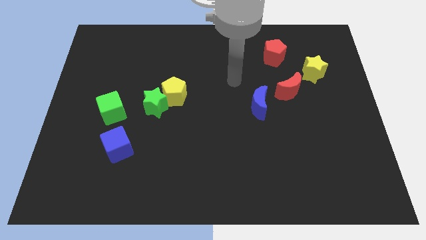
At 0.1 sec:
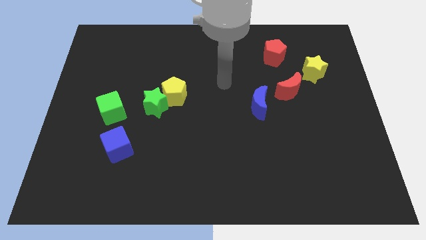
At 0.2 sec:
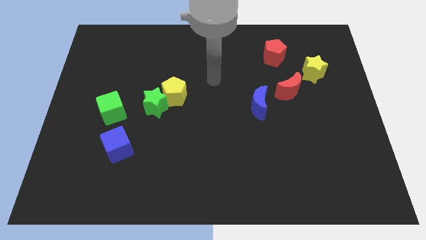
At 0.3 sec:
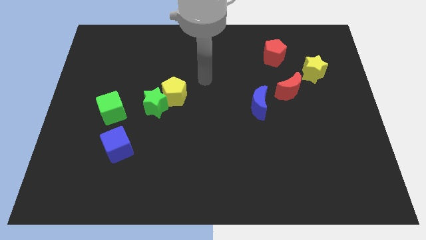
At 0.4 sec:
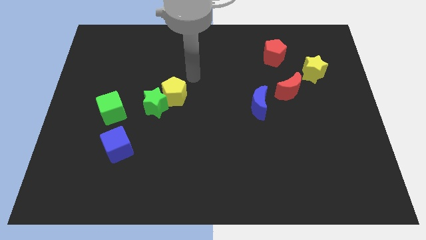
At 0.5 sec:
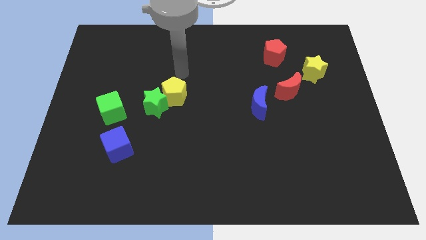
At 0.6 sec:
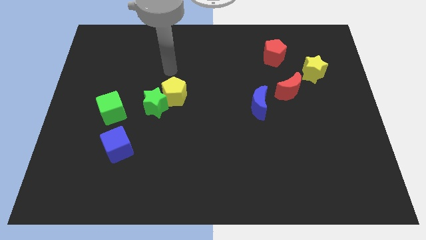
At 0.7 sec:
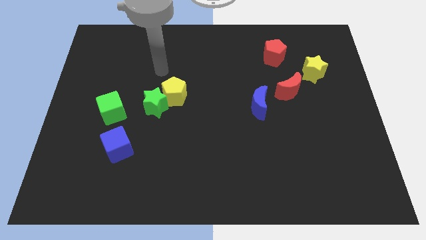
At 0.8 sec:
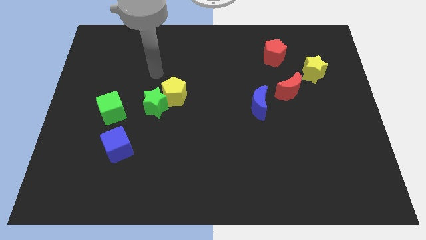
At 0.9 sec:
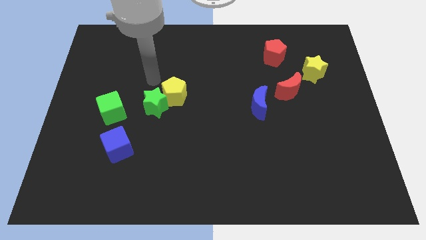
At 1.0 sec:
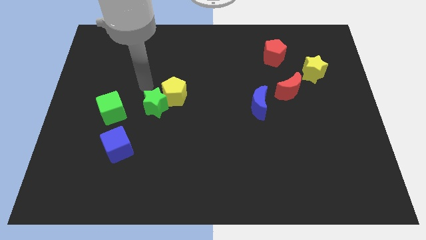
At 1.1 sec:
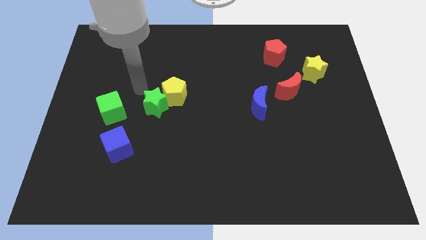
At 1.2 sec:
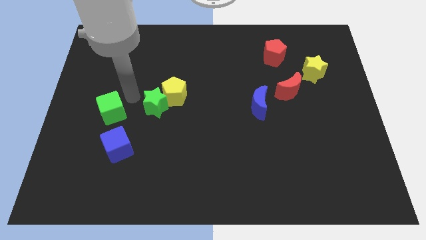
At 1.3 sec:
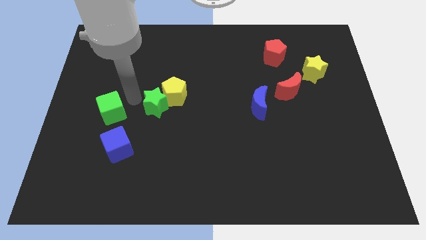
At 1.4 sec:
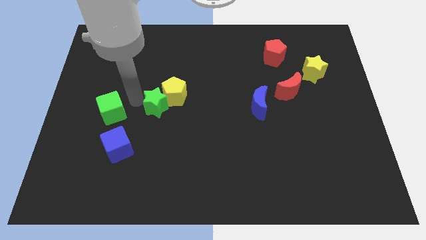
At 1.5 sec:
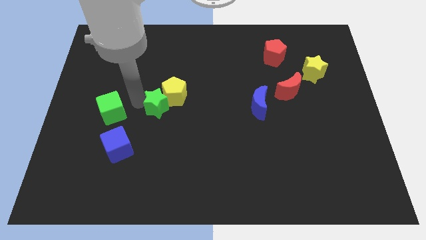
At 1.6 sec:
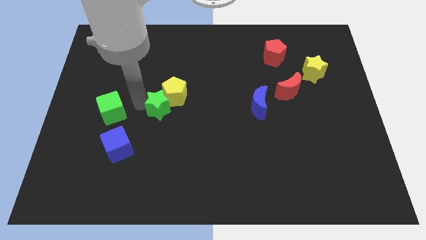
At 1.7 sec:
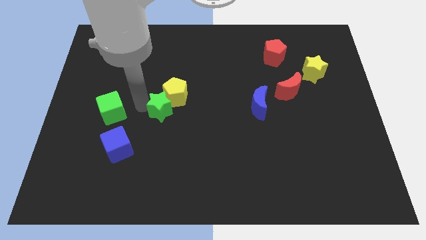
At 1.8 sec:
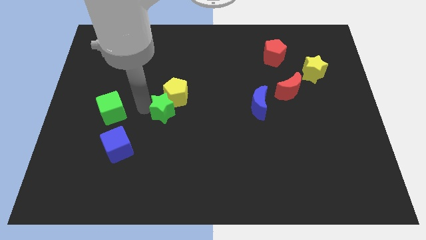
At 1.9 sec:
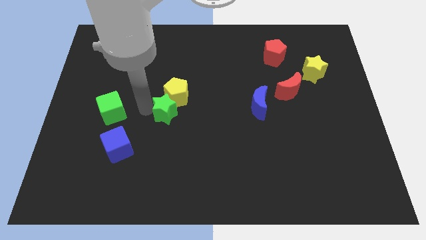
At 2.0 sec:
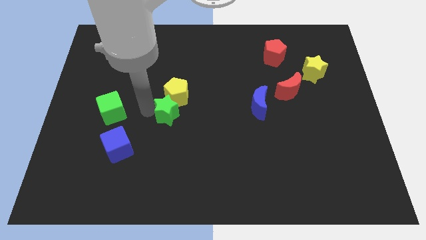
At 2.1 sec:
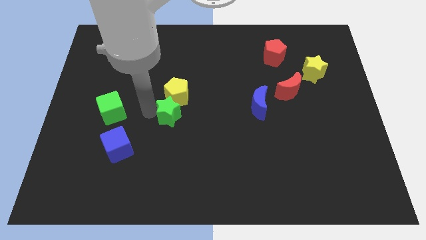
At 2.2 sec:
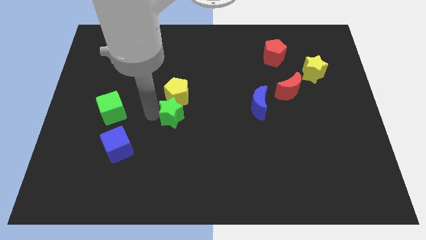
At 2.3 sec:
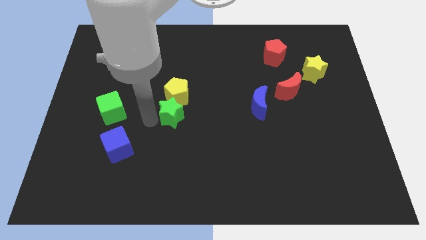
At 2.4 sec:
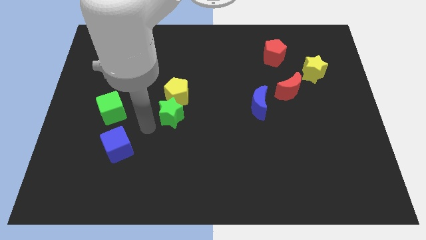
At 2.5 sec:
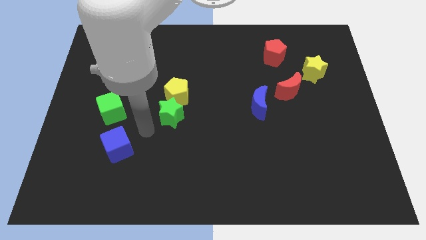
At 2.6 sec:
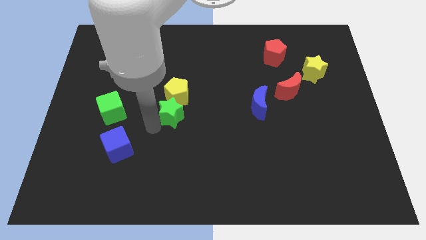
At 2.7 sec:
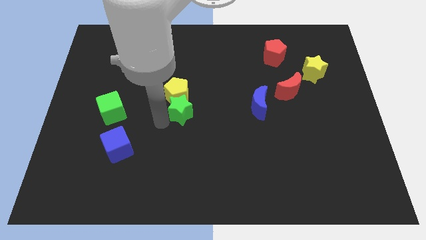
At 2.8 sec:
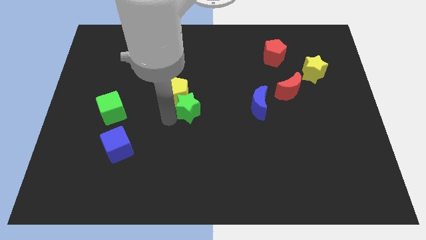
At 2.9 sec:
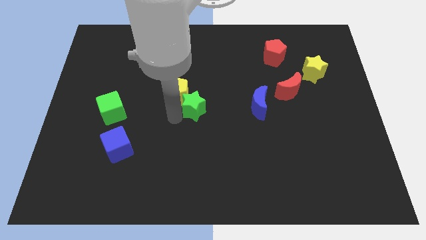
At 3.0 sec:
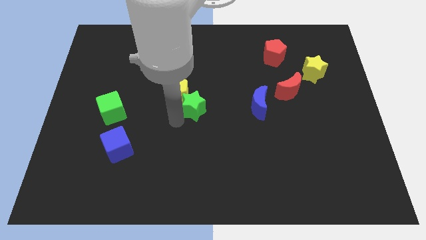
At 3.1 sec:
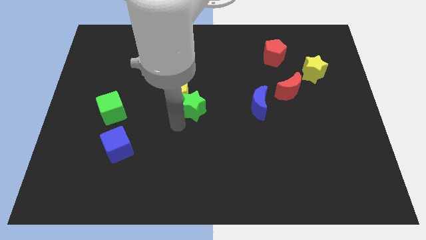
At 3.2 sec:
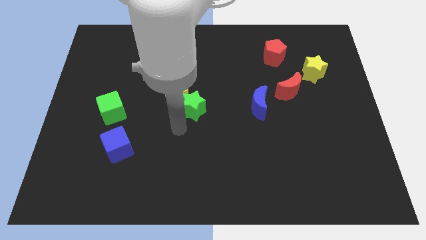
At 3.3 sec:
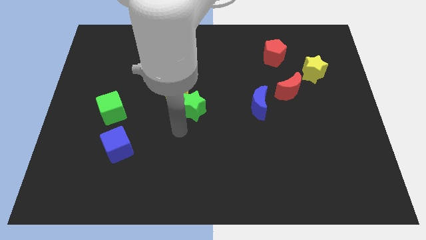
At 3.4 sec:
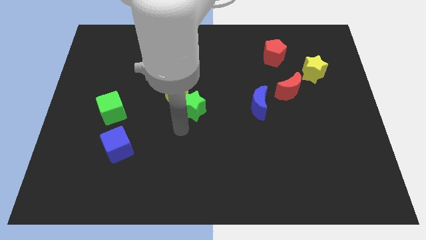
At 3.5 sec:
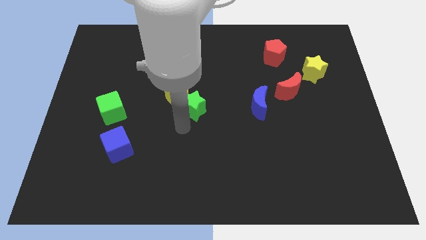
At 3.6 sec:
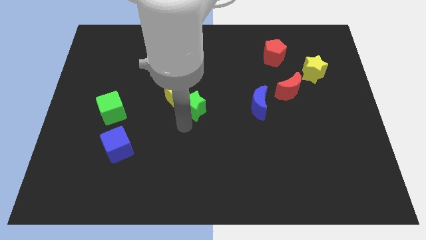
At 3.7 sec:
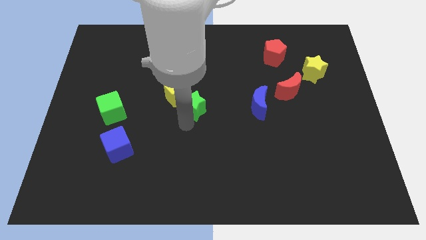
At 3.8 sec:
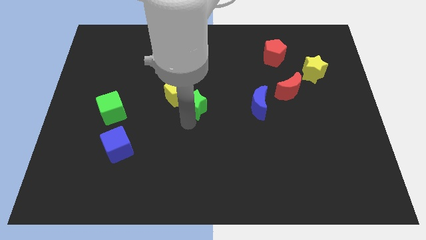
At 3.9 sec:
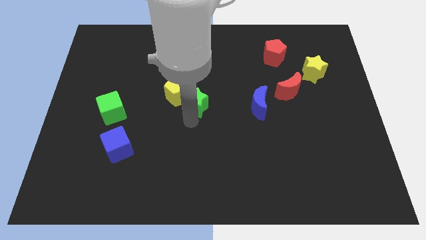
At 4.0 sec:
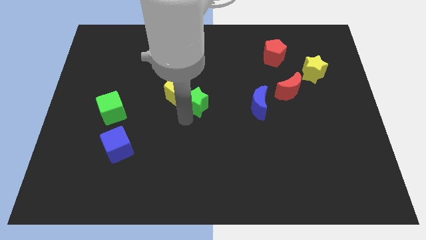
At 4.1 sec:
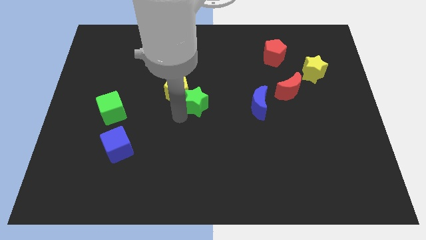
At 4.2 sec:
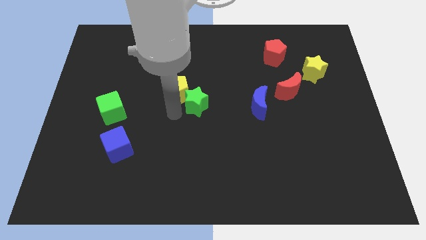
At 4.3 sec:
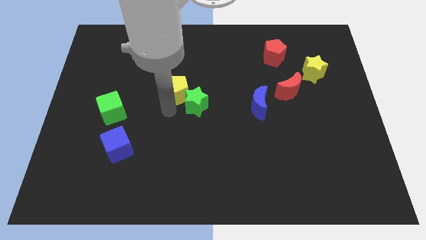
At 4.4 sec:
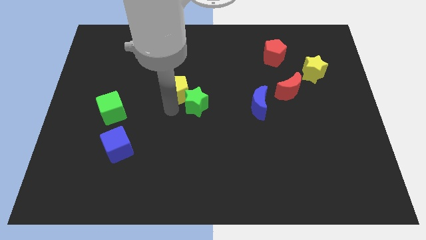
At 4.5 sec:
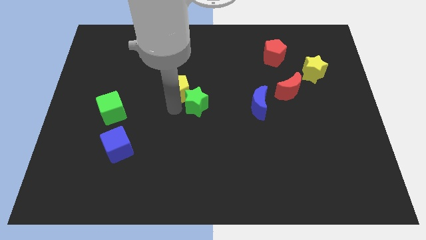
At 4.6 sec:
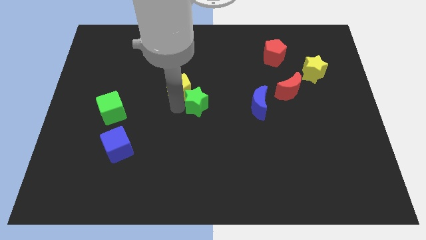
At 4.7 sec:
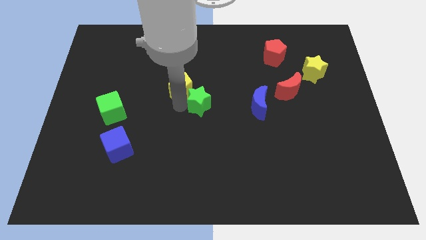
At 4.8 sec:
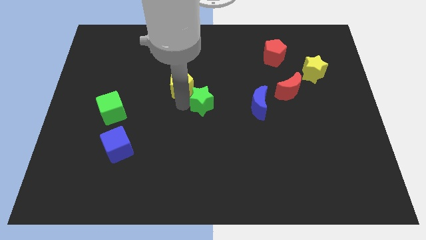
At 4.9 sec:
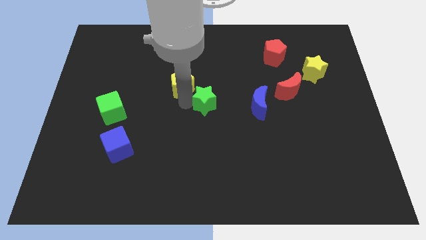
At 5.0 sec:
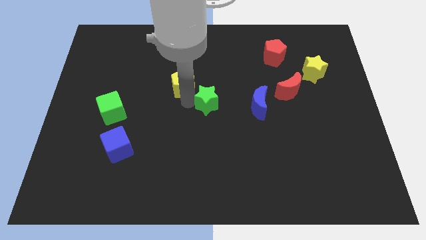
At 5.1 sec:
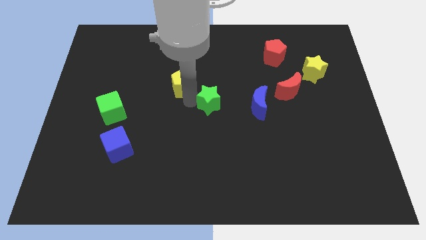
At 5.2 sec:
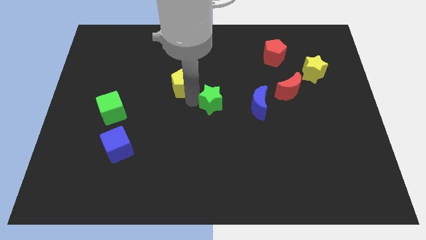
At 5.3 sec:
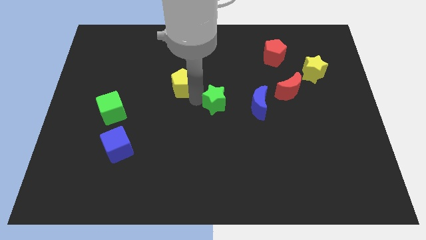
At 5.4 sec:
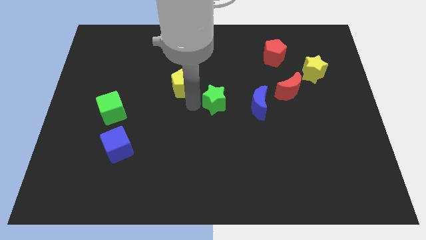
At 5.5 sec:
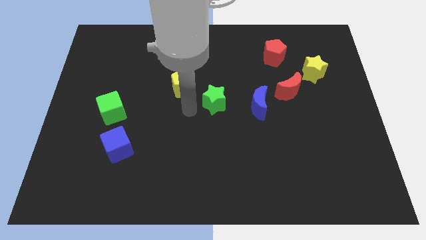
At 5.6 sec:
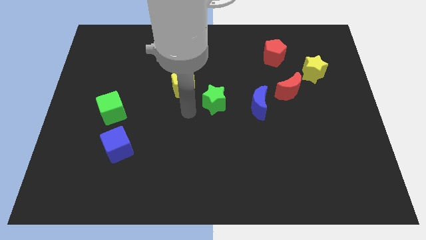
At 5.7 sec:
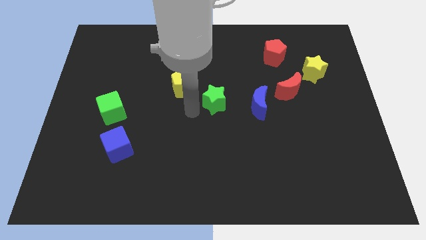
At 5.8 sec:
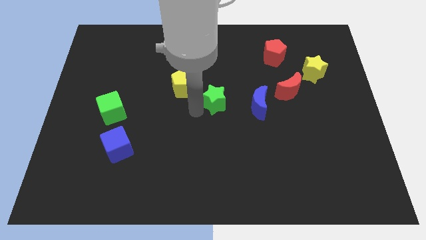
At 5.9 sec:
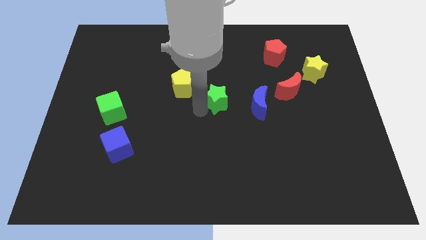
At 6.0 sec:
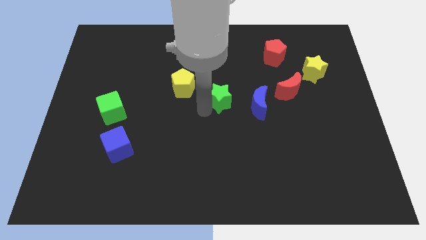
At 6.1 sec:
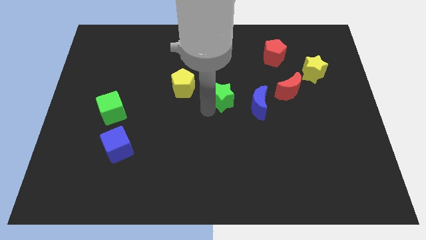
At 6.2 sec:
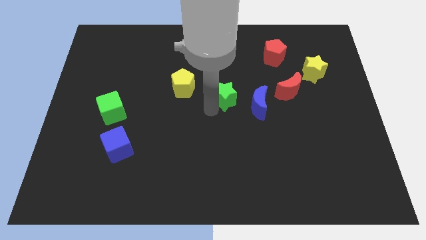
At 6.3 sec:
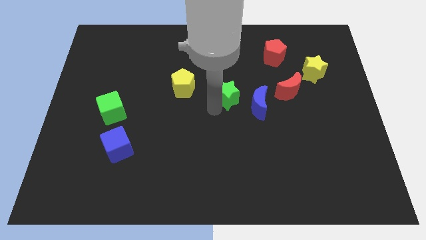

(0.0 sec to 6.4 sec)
move the green star just left of the red moon
